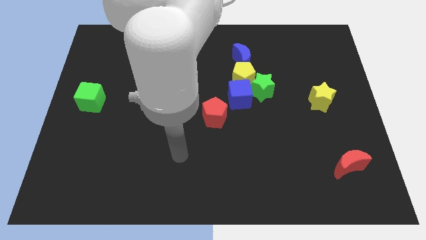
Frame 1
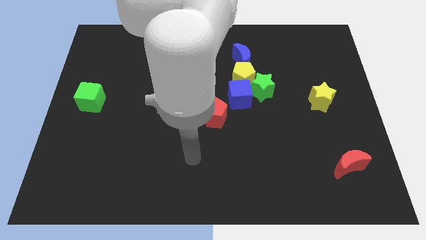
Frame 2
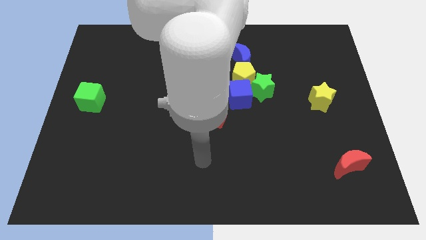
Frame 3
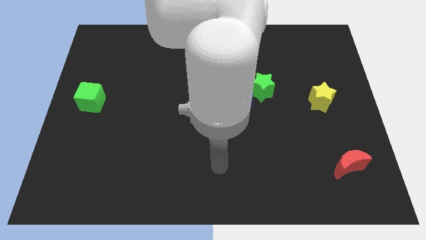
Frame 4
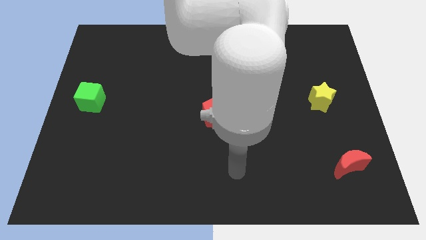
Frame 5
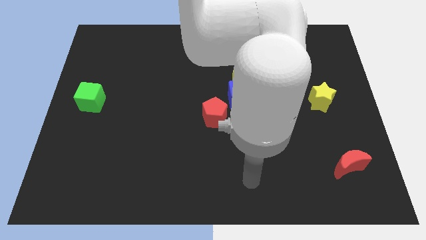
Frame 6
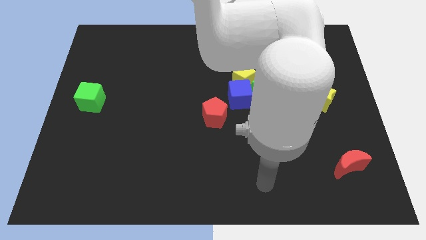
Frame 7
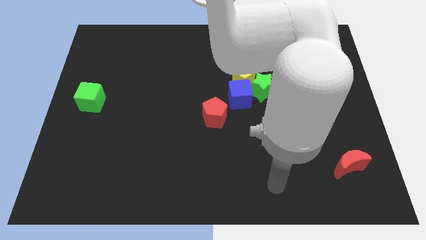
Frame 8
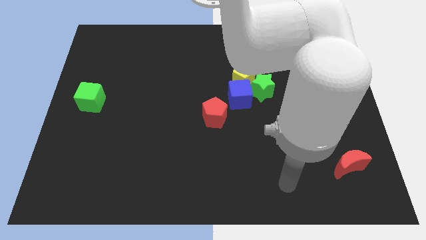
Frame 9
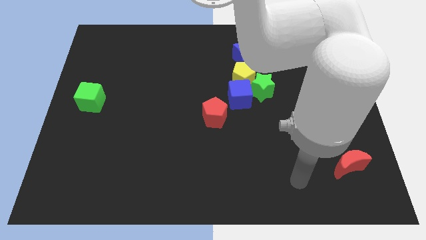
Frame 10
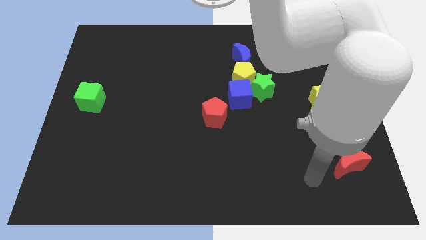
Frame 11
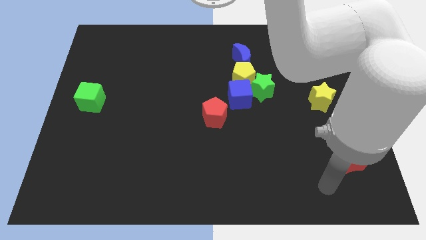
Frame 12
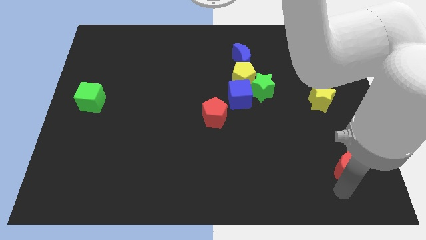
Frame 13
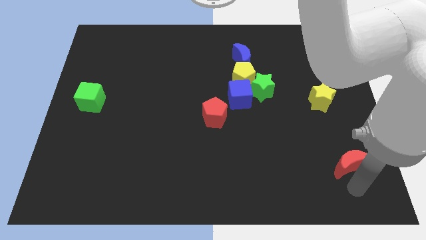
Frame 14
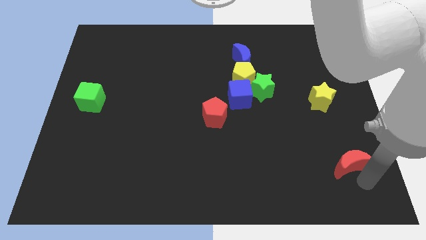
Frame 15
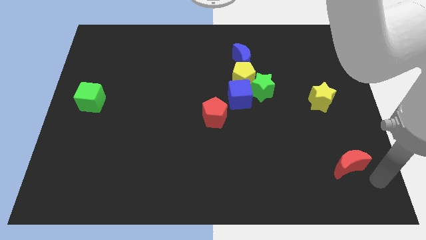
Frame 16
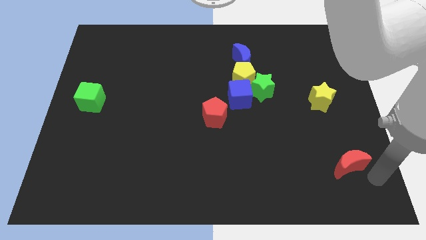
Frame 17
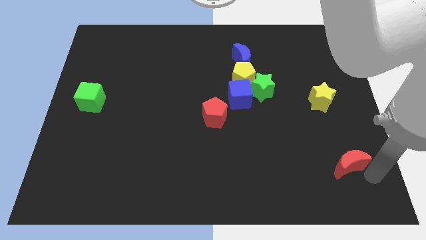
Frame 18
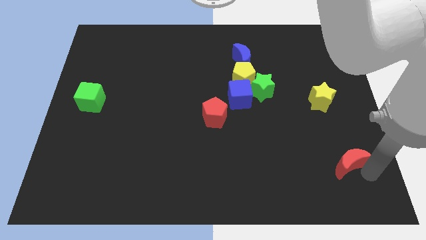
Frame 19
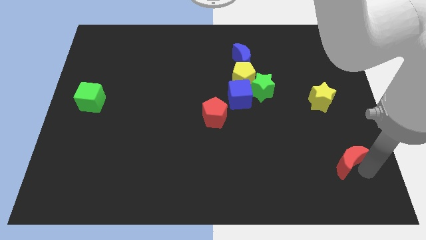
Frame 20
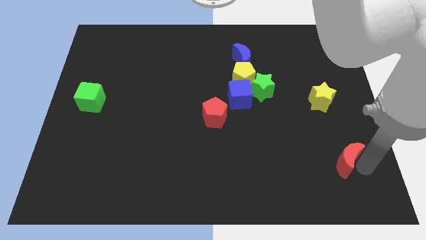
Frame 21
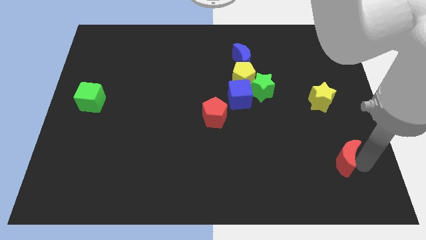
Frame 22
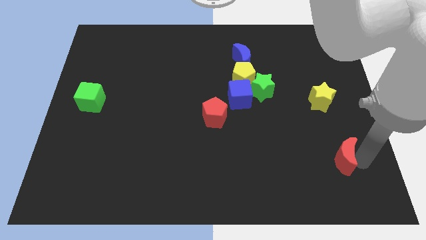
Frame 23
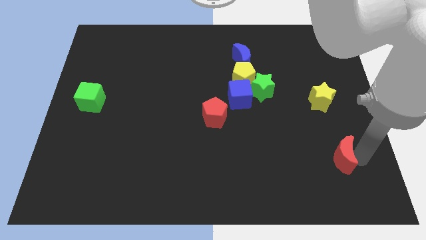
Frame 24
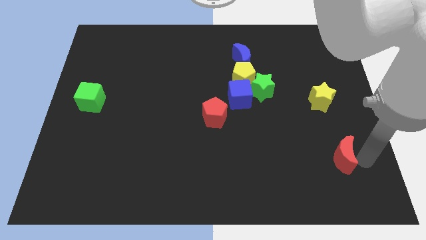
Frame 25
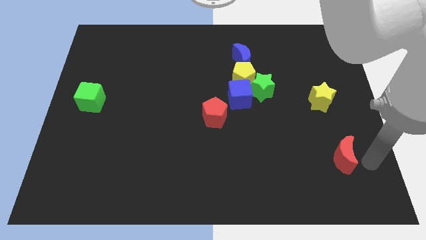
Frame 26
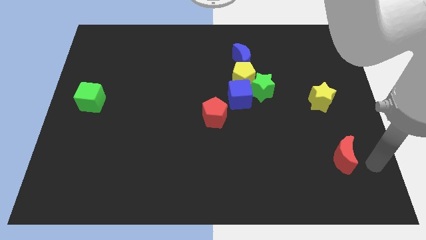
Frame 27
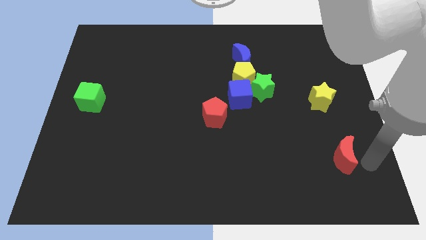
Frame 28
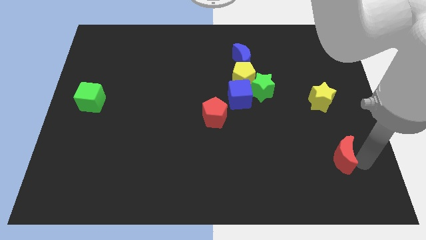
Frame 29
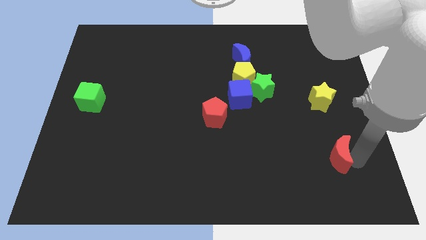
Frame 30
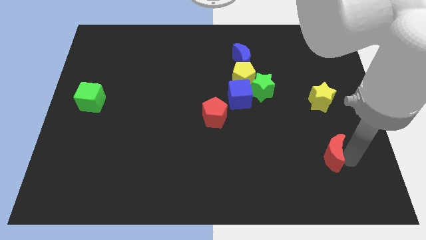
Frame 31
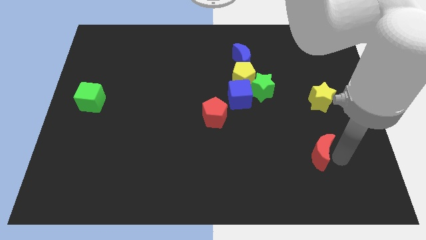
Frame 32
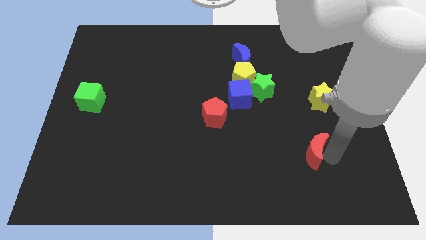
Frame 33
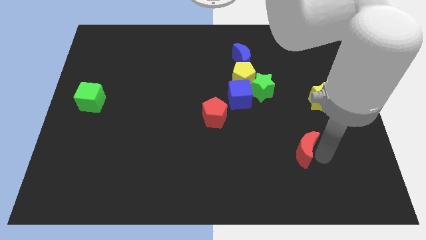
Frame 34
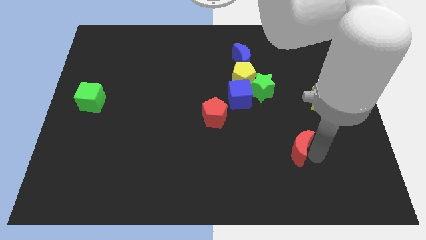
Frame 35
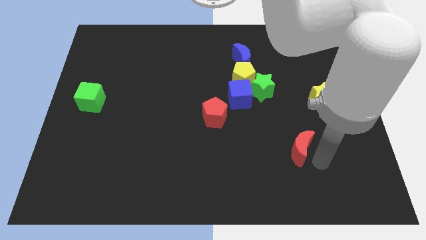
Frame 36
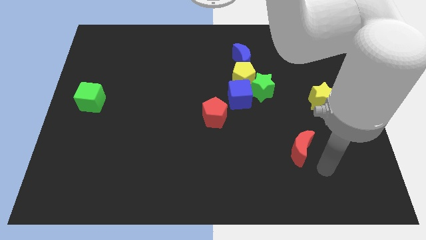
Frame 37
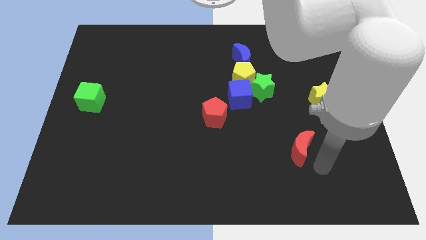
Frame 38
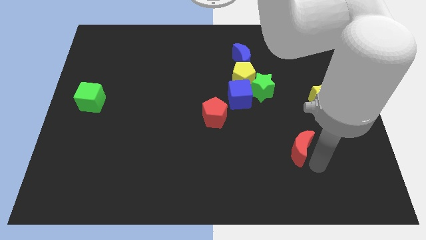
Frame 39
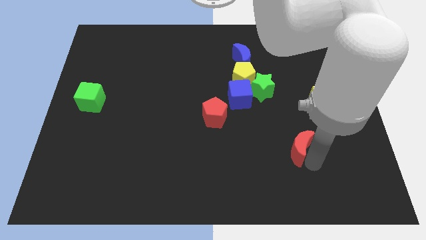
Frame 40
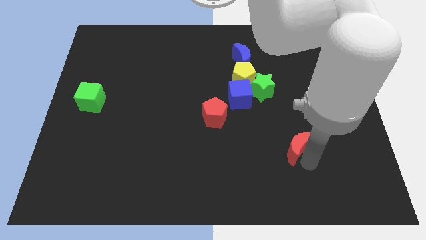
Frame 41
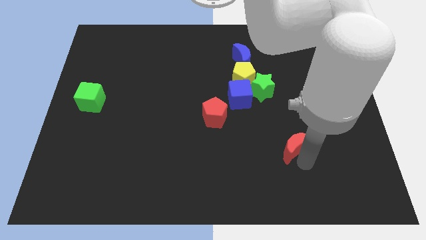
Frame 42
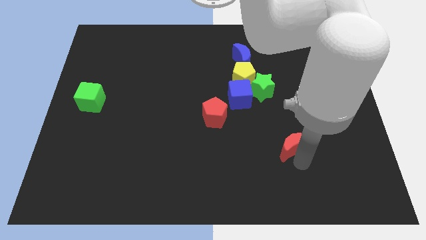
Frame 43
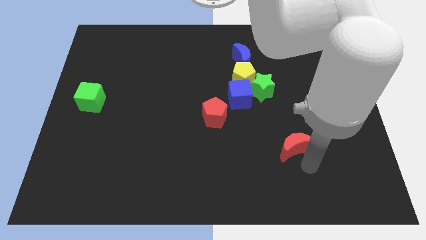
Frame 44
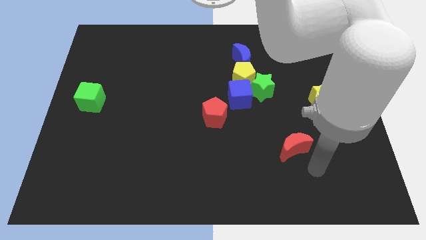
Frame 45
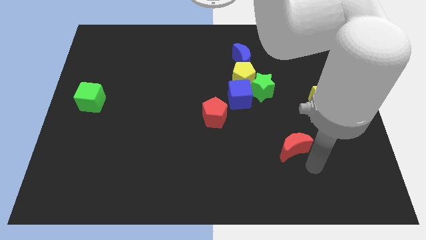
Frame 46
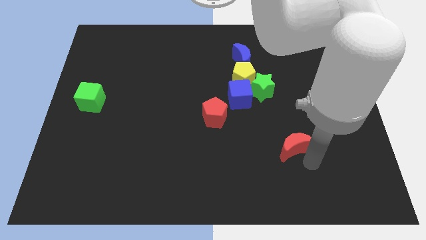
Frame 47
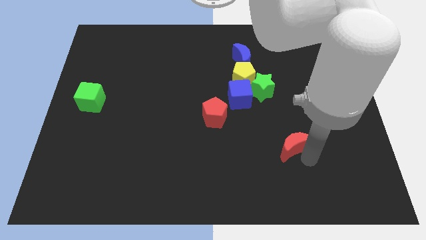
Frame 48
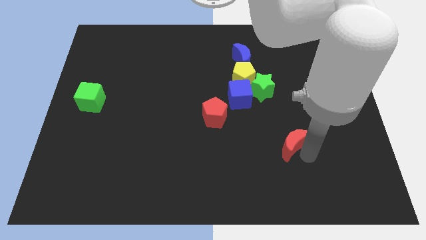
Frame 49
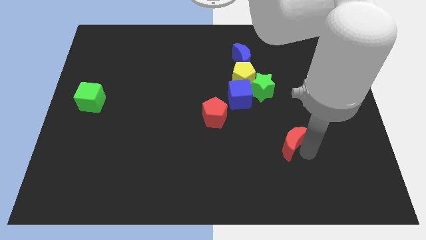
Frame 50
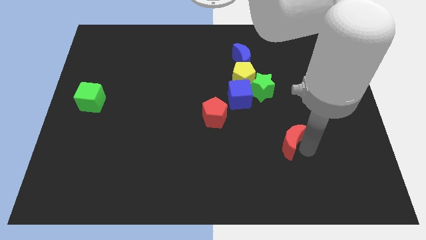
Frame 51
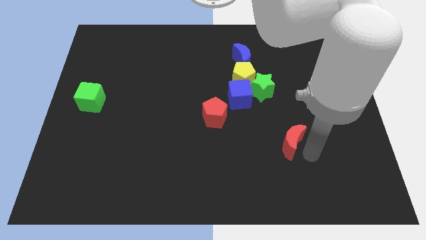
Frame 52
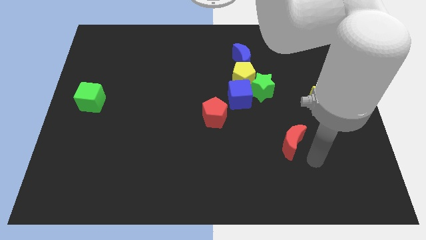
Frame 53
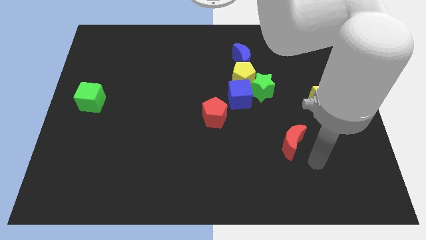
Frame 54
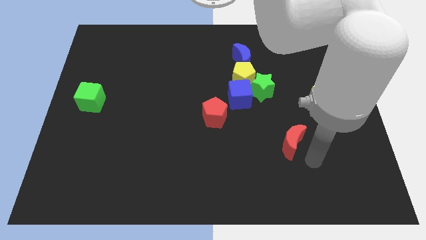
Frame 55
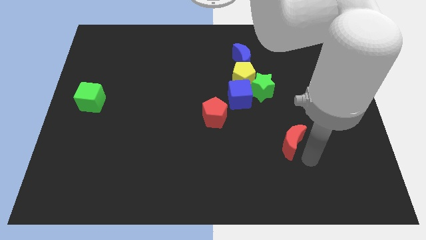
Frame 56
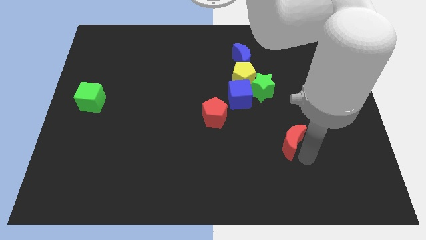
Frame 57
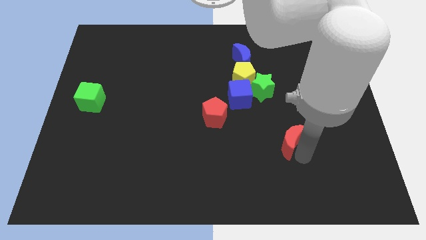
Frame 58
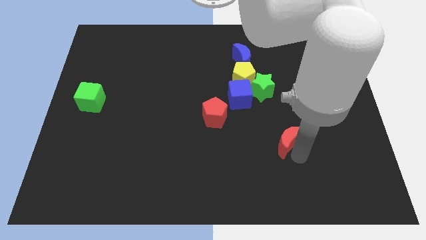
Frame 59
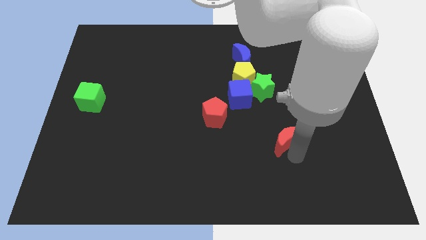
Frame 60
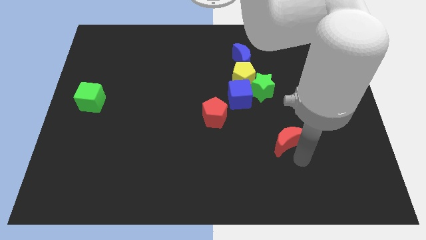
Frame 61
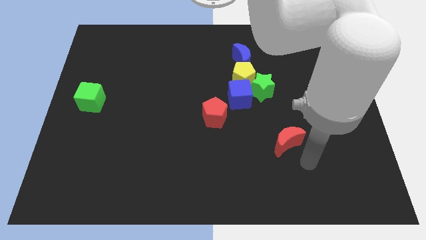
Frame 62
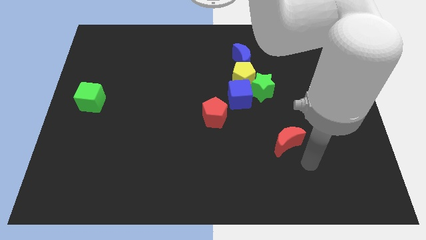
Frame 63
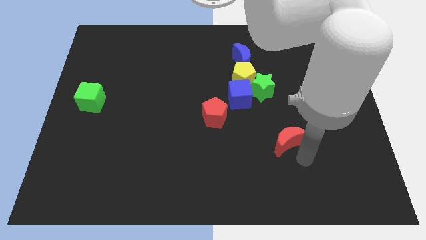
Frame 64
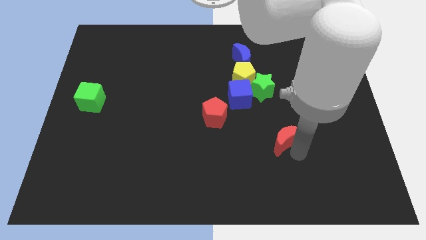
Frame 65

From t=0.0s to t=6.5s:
move the red moon to the bottom side of the green star
